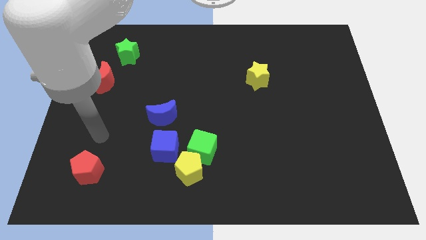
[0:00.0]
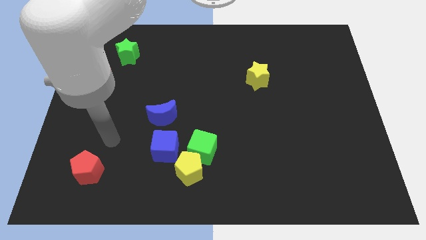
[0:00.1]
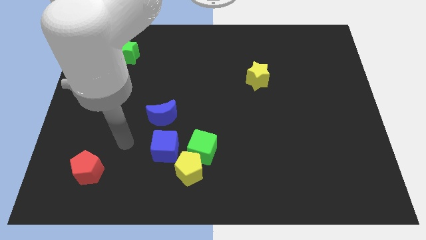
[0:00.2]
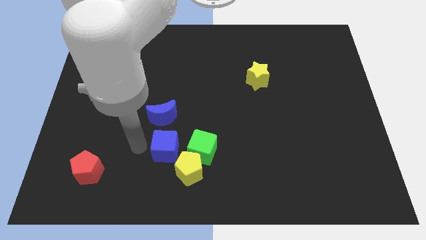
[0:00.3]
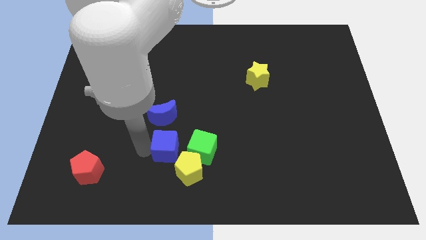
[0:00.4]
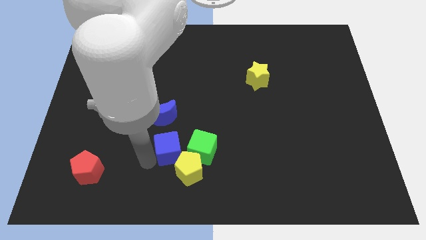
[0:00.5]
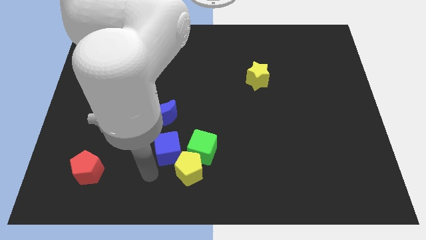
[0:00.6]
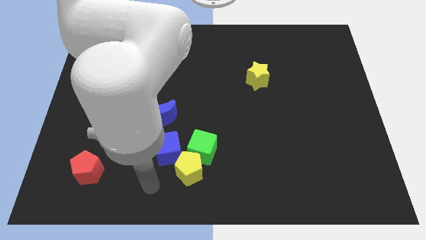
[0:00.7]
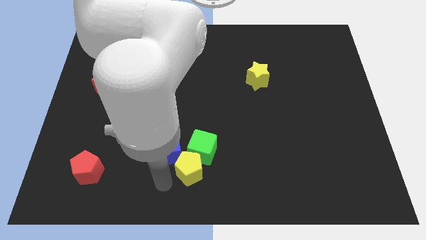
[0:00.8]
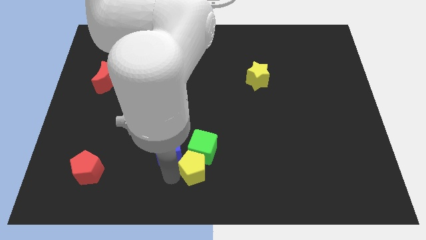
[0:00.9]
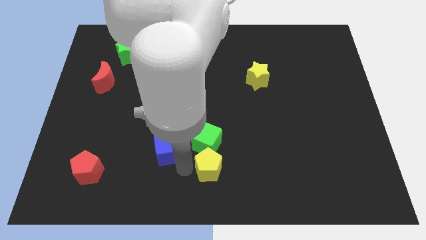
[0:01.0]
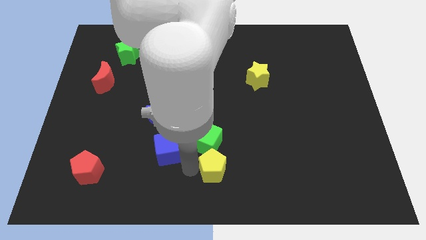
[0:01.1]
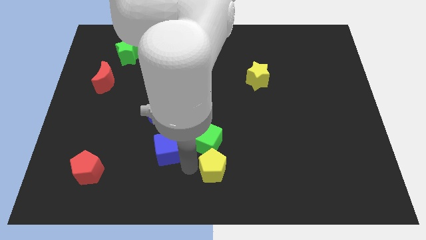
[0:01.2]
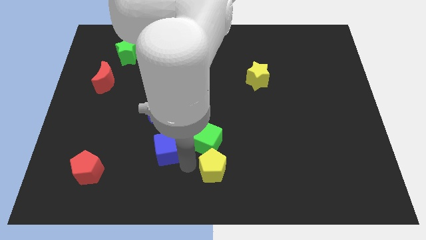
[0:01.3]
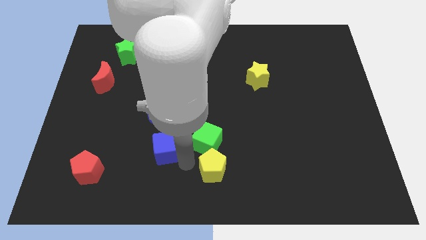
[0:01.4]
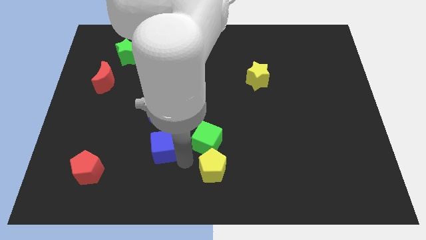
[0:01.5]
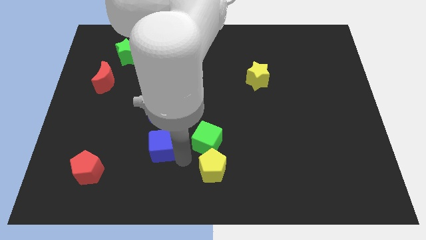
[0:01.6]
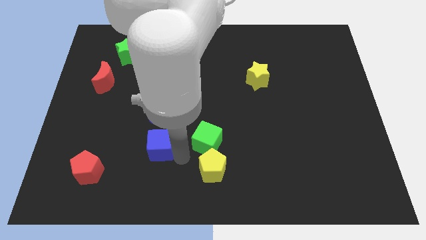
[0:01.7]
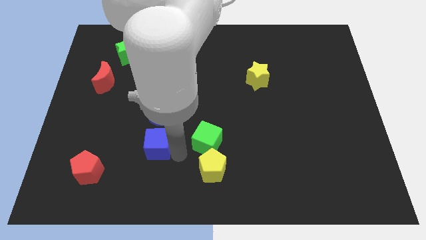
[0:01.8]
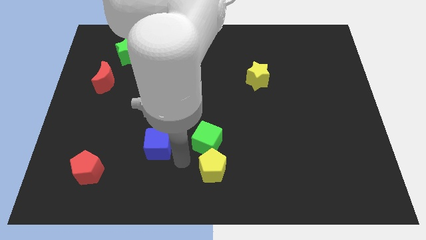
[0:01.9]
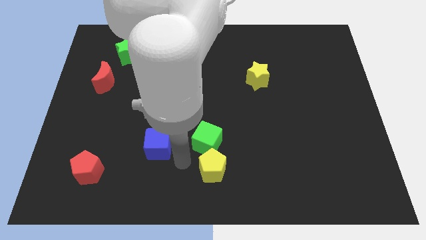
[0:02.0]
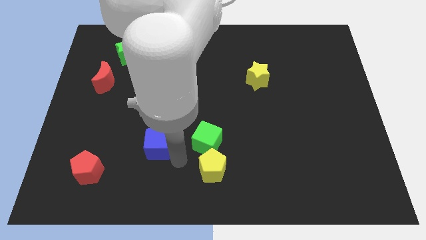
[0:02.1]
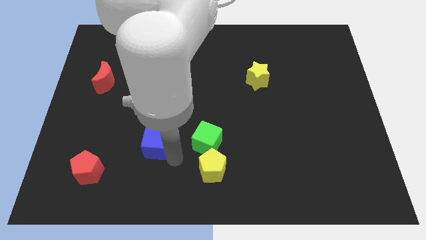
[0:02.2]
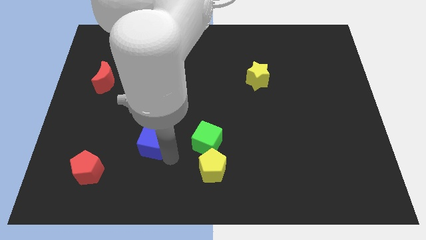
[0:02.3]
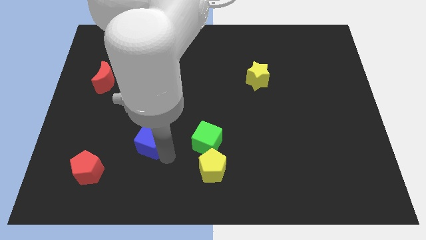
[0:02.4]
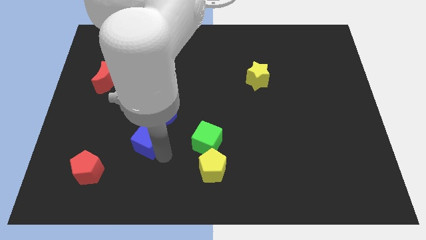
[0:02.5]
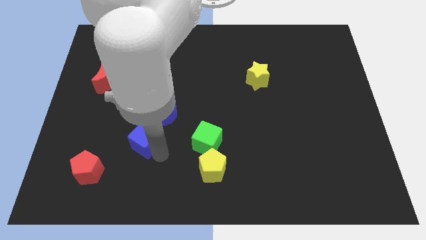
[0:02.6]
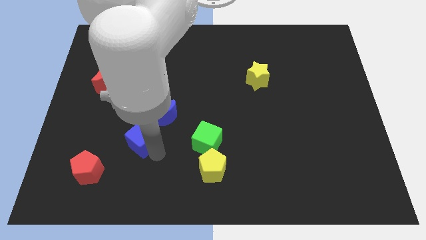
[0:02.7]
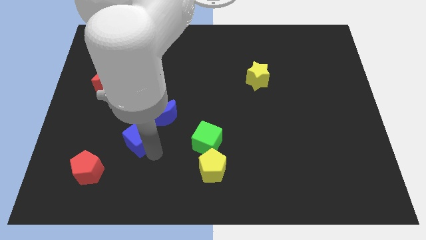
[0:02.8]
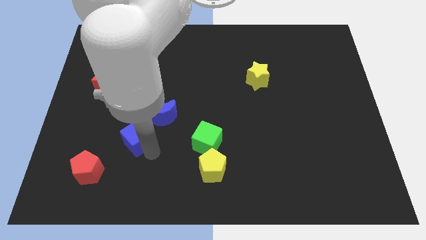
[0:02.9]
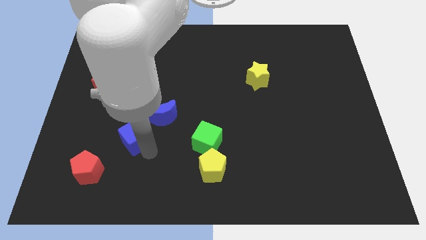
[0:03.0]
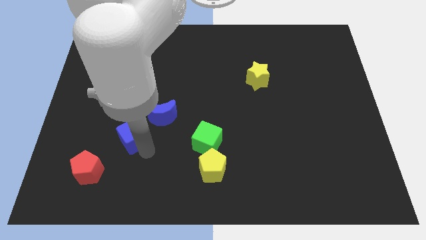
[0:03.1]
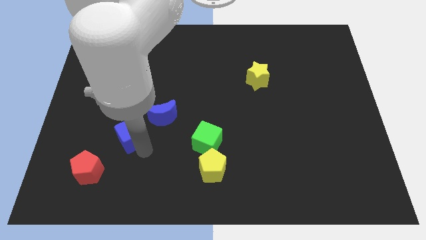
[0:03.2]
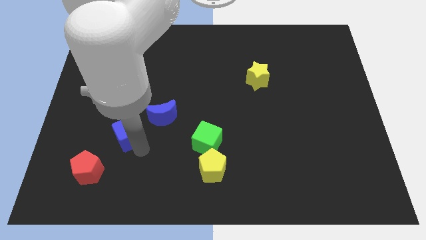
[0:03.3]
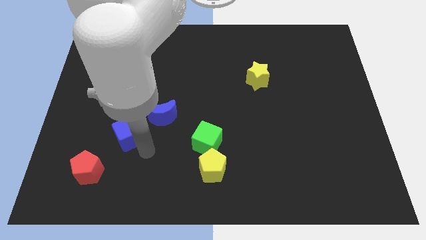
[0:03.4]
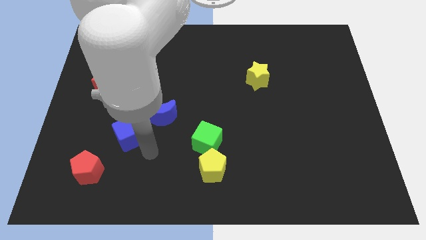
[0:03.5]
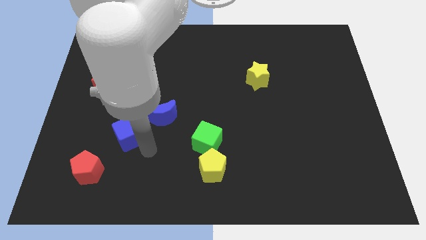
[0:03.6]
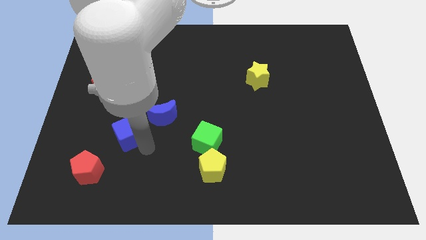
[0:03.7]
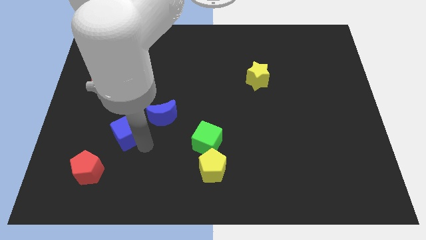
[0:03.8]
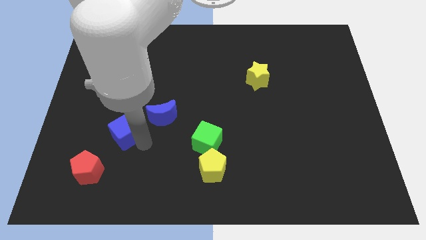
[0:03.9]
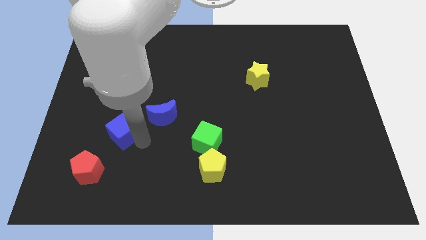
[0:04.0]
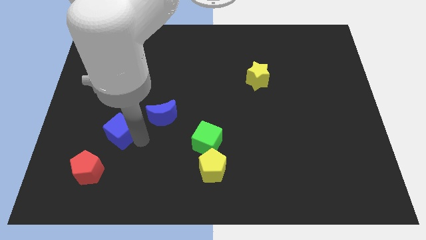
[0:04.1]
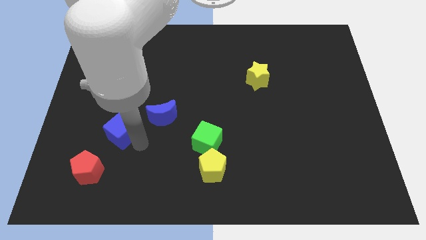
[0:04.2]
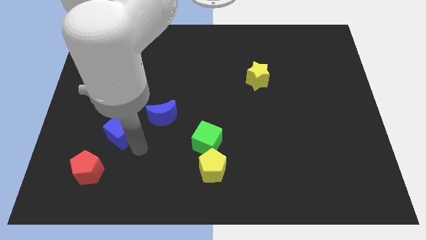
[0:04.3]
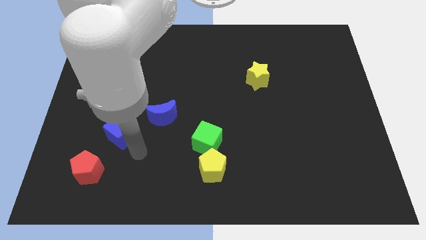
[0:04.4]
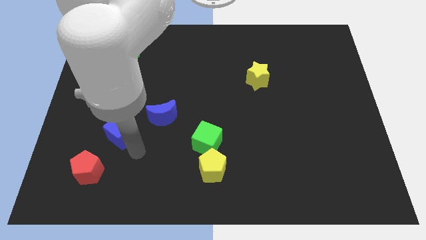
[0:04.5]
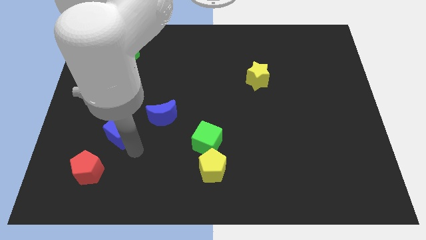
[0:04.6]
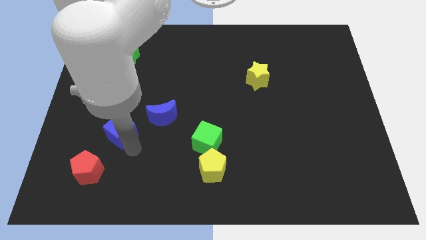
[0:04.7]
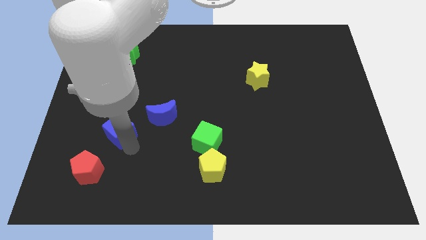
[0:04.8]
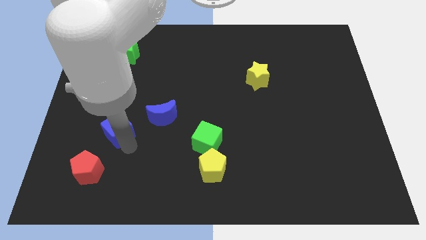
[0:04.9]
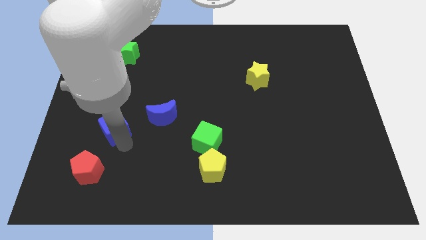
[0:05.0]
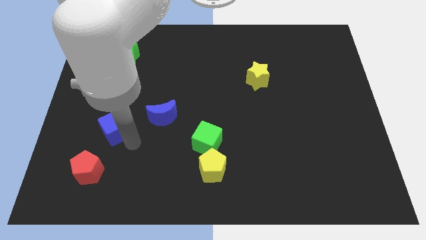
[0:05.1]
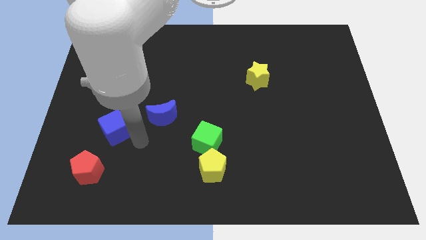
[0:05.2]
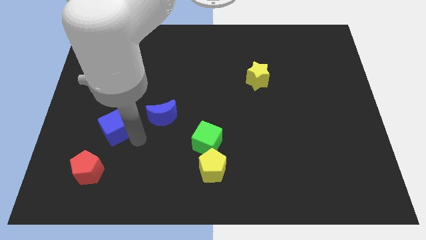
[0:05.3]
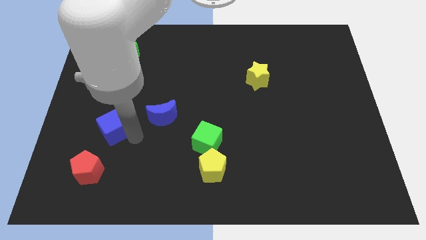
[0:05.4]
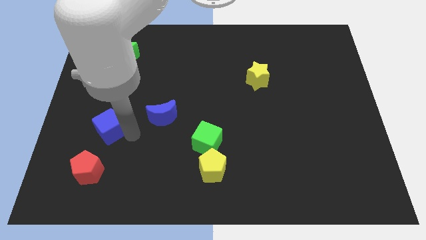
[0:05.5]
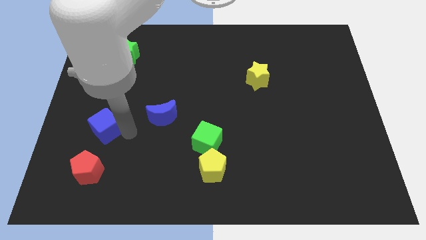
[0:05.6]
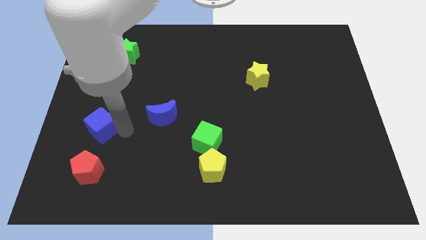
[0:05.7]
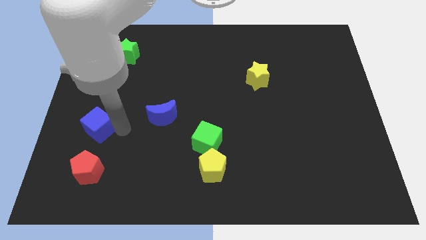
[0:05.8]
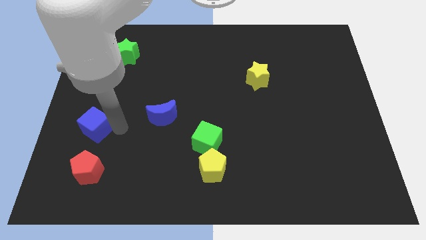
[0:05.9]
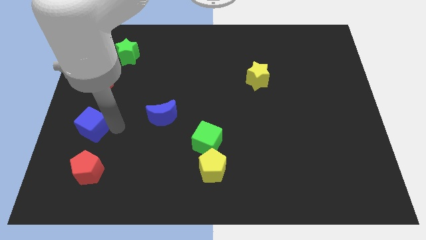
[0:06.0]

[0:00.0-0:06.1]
push the blue cube to the left side of the board
